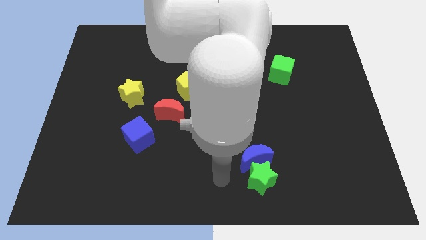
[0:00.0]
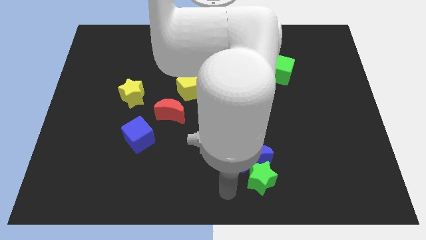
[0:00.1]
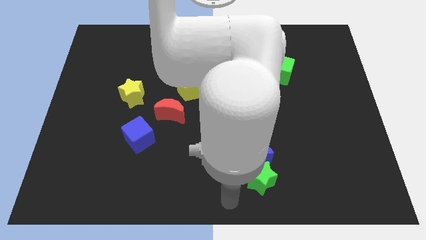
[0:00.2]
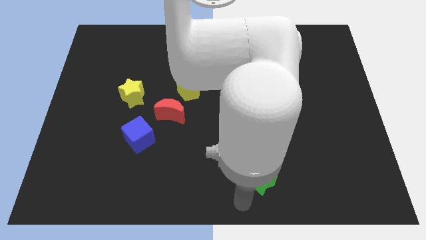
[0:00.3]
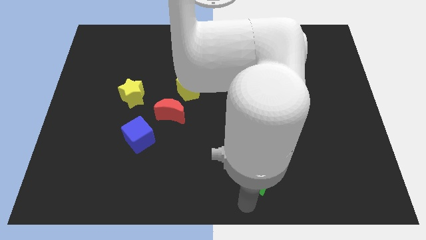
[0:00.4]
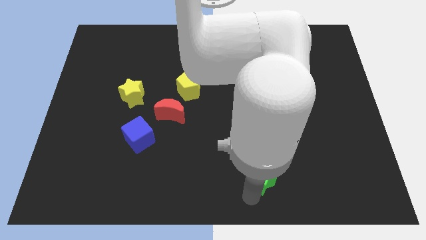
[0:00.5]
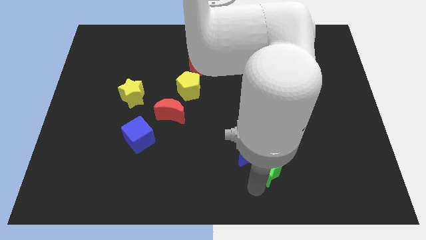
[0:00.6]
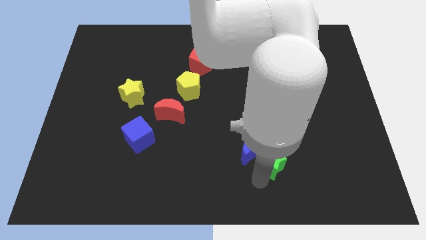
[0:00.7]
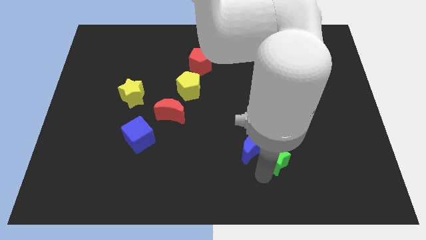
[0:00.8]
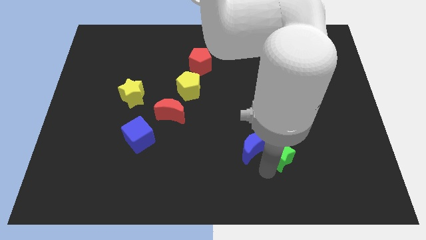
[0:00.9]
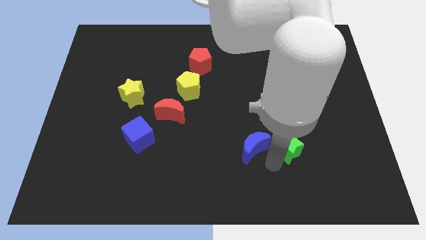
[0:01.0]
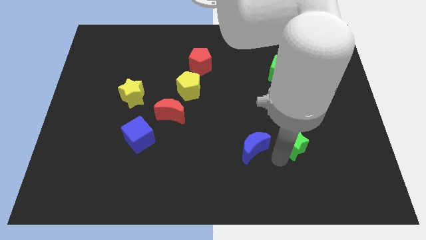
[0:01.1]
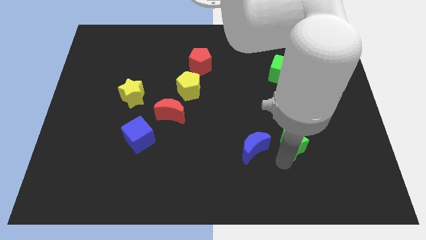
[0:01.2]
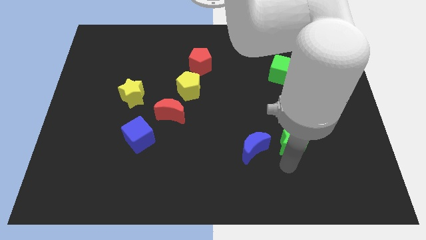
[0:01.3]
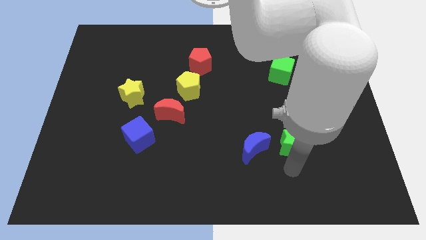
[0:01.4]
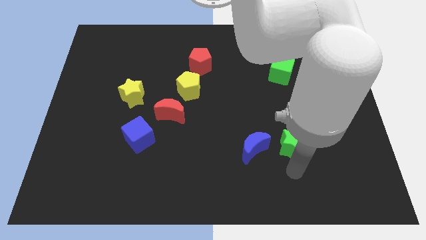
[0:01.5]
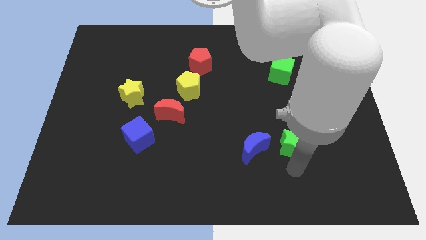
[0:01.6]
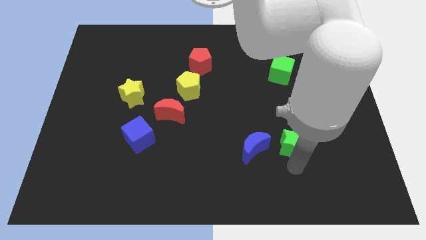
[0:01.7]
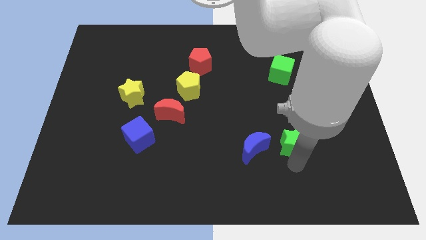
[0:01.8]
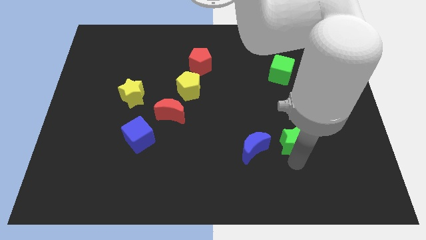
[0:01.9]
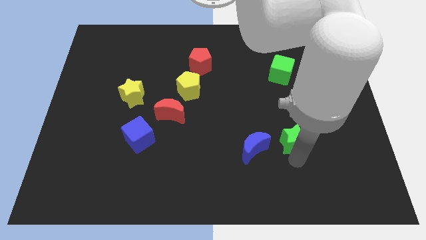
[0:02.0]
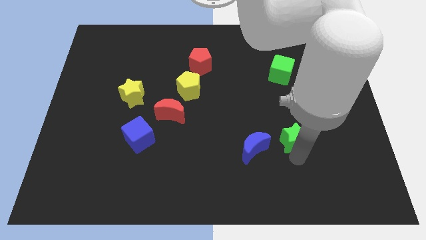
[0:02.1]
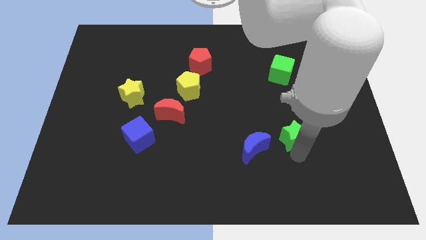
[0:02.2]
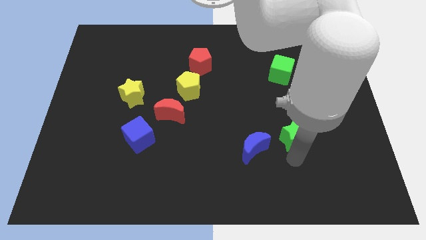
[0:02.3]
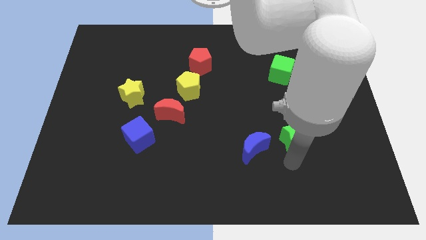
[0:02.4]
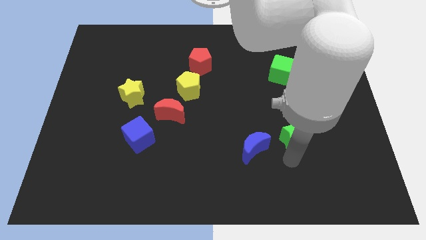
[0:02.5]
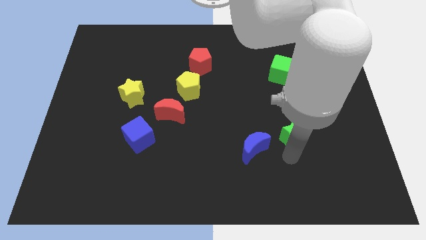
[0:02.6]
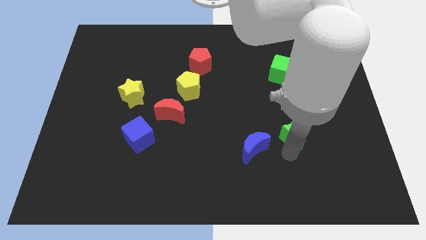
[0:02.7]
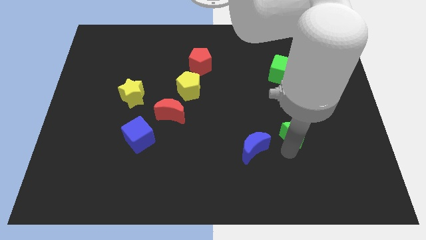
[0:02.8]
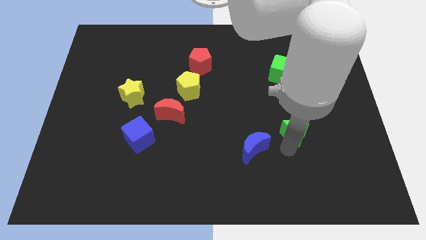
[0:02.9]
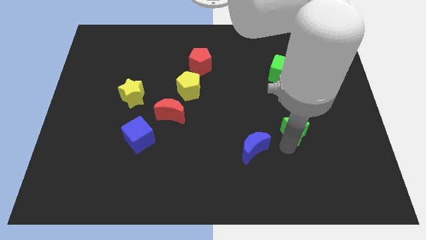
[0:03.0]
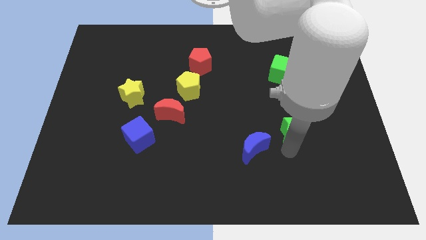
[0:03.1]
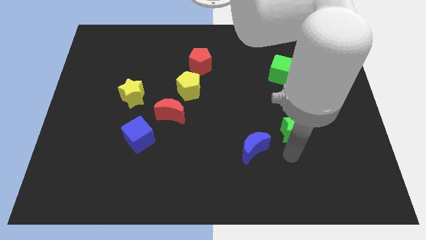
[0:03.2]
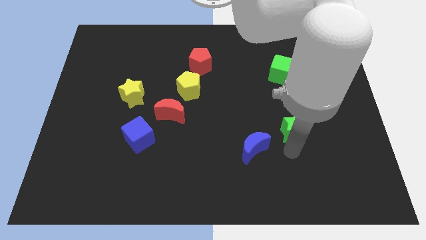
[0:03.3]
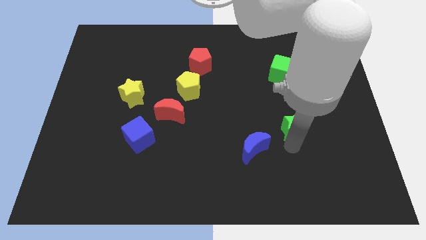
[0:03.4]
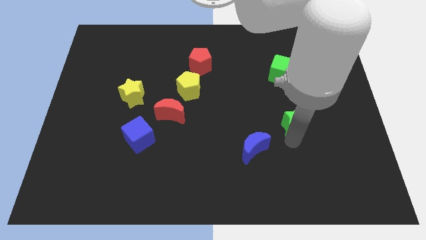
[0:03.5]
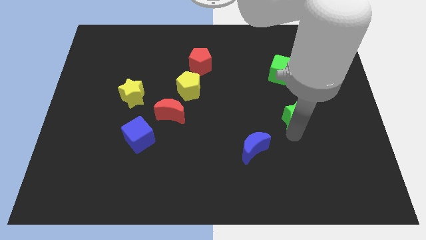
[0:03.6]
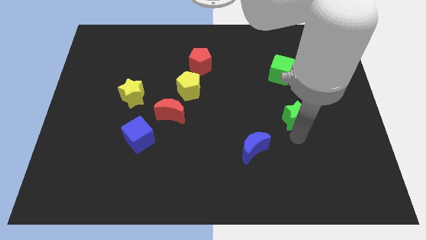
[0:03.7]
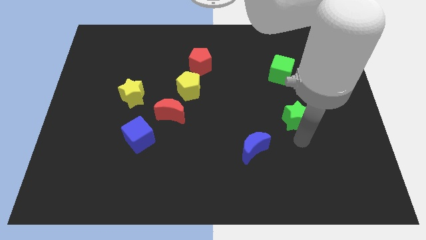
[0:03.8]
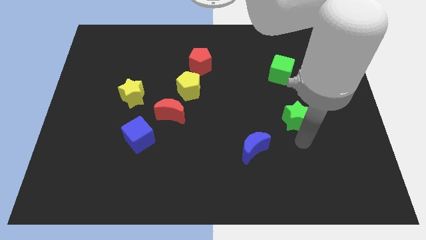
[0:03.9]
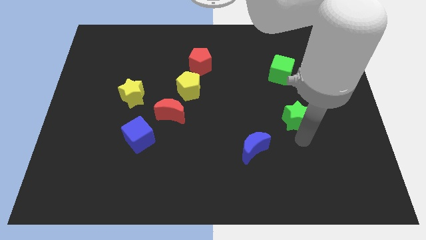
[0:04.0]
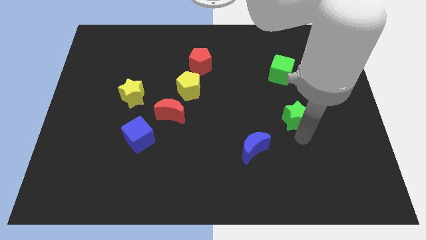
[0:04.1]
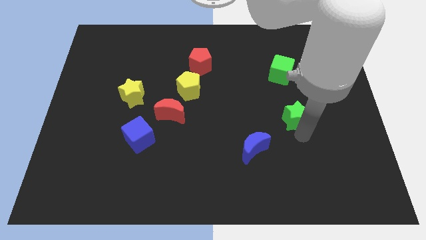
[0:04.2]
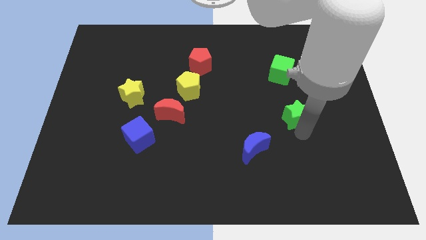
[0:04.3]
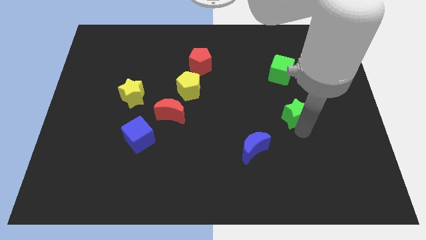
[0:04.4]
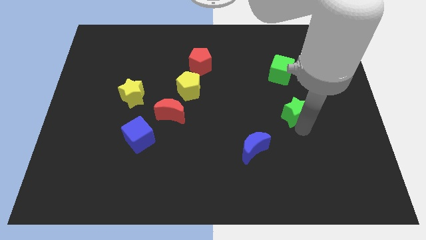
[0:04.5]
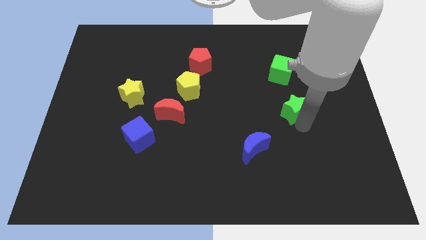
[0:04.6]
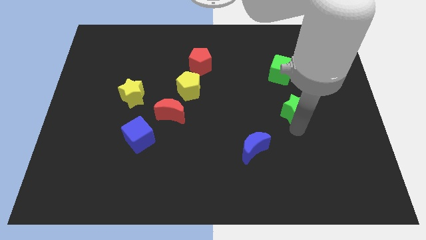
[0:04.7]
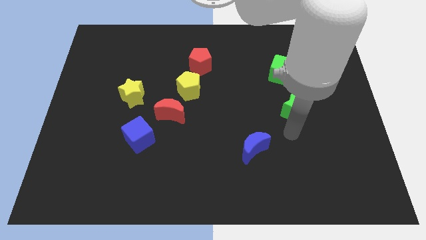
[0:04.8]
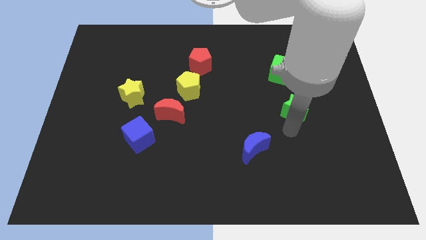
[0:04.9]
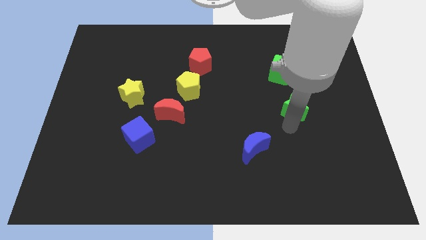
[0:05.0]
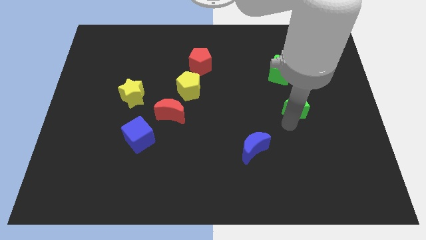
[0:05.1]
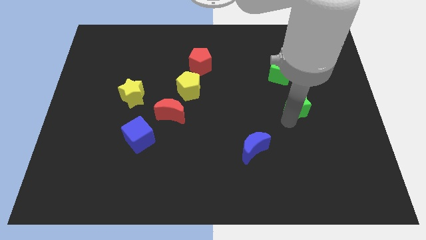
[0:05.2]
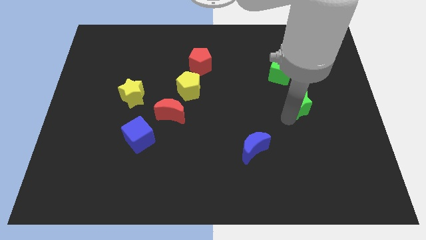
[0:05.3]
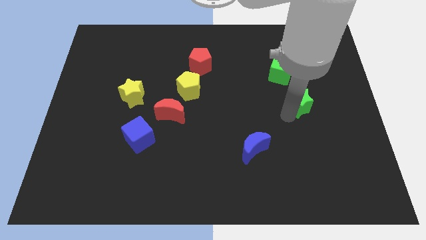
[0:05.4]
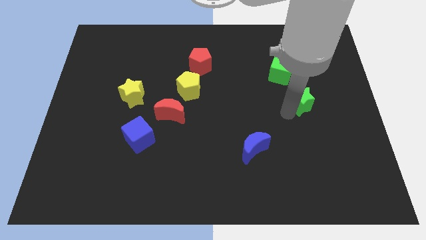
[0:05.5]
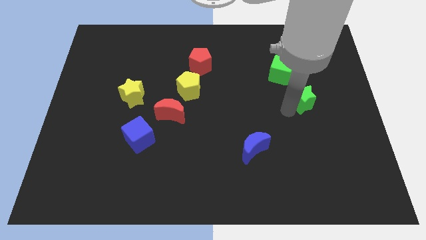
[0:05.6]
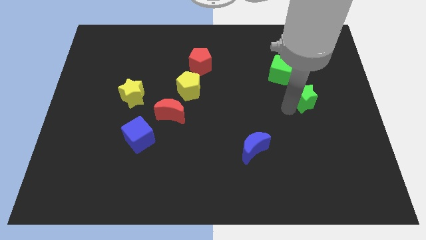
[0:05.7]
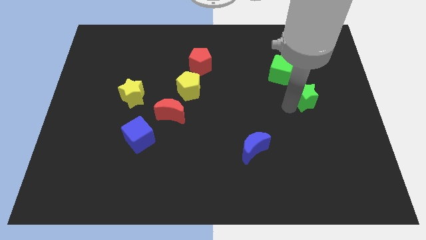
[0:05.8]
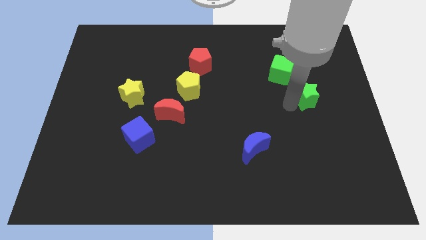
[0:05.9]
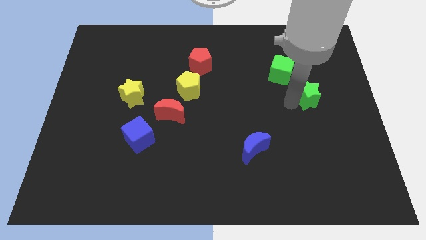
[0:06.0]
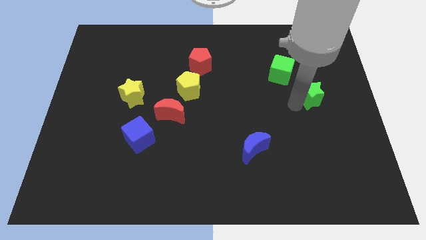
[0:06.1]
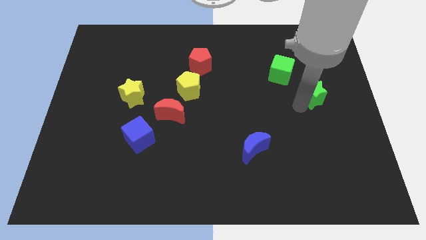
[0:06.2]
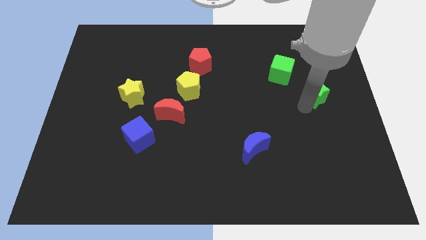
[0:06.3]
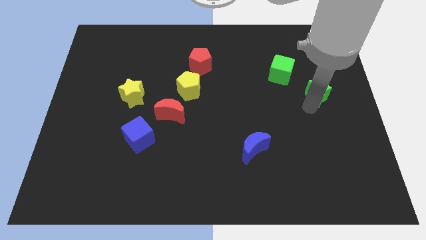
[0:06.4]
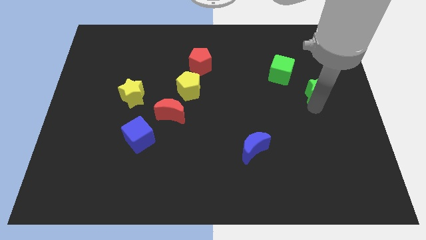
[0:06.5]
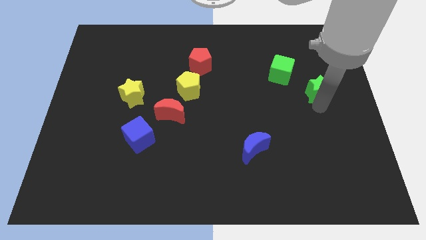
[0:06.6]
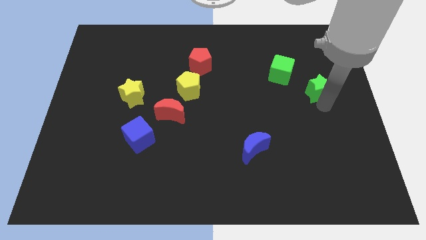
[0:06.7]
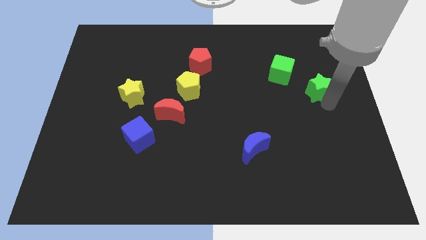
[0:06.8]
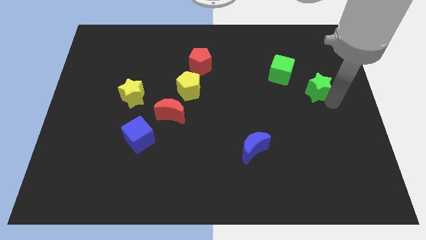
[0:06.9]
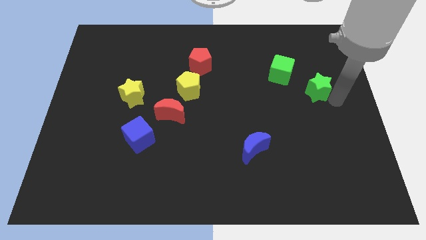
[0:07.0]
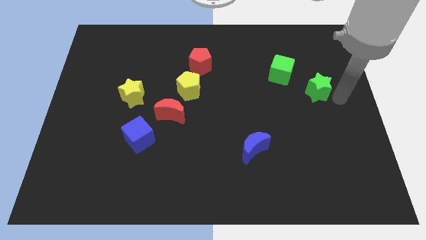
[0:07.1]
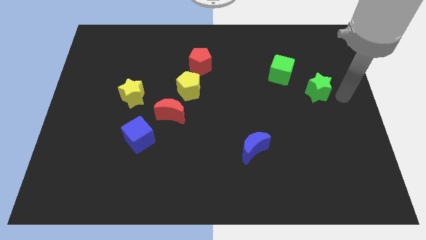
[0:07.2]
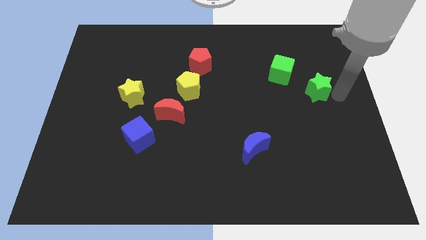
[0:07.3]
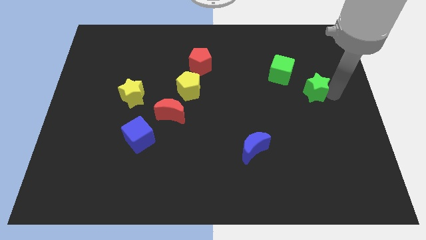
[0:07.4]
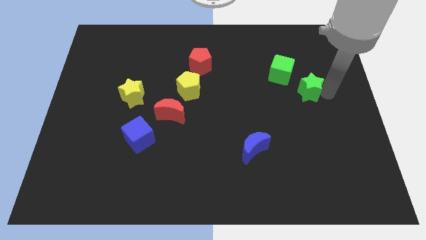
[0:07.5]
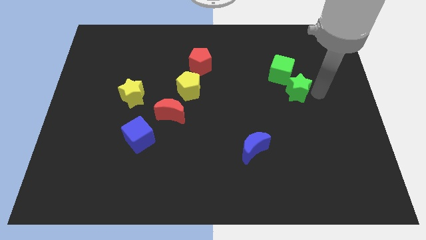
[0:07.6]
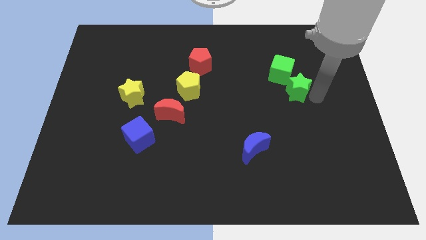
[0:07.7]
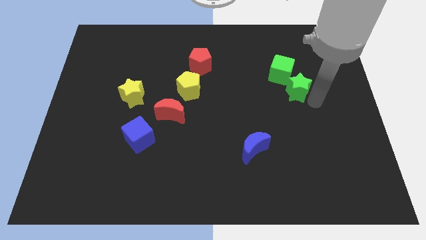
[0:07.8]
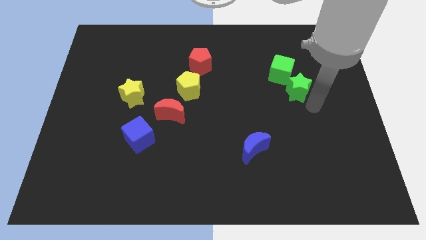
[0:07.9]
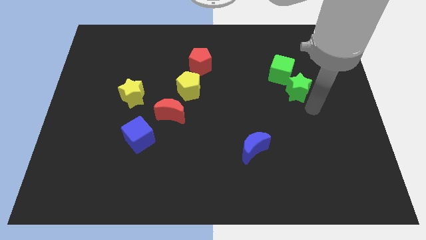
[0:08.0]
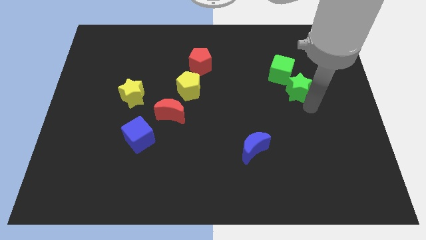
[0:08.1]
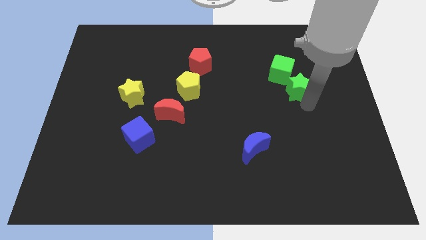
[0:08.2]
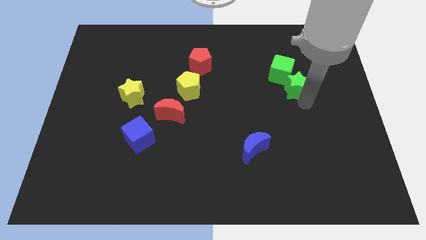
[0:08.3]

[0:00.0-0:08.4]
move the green star to the green cube
